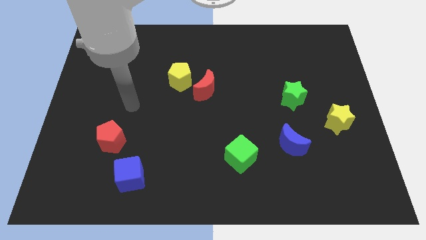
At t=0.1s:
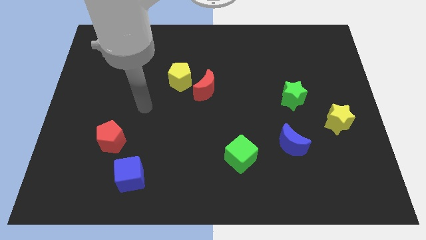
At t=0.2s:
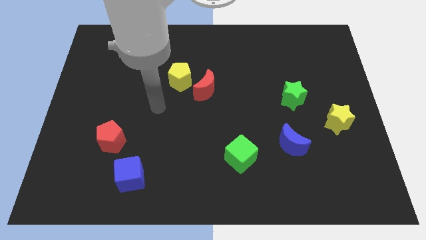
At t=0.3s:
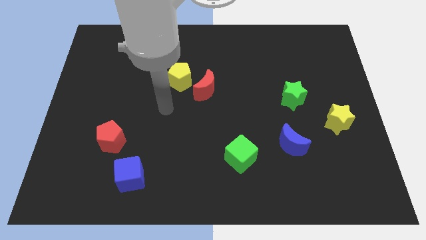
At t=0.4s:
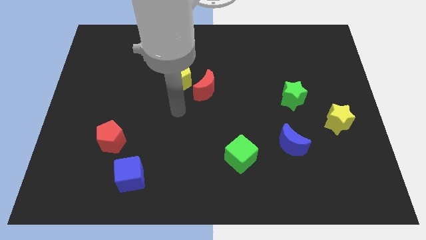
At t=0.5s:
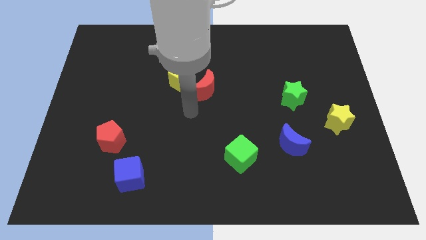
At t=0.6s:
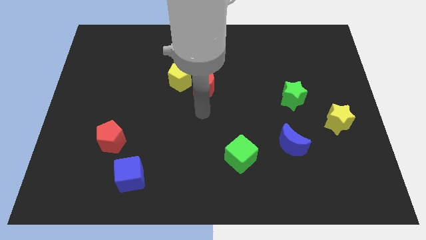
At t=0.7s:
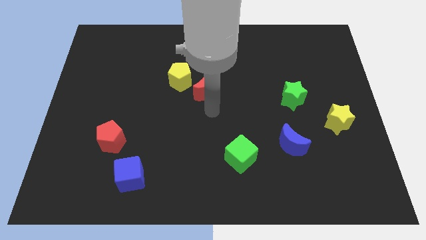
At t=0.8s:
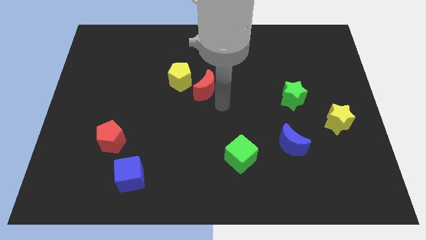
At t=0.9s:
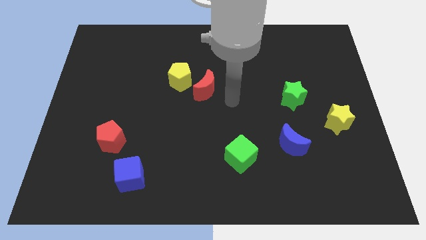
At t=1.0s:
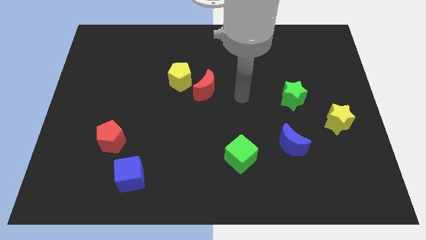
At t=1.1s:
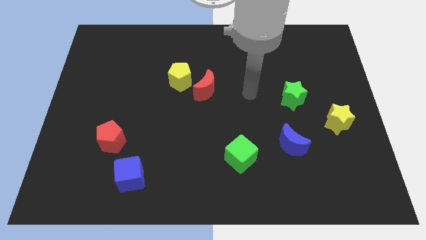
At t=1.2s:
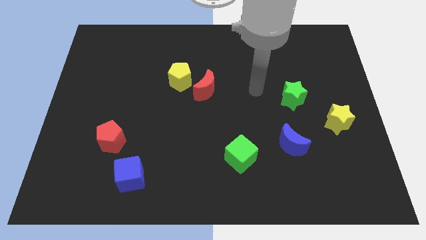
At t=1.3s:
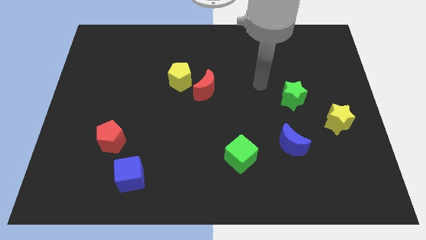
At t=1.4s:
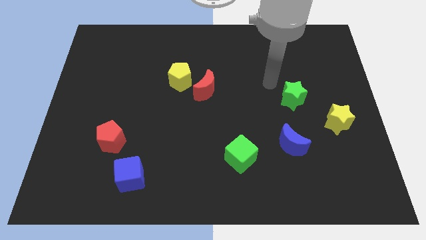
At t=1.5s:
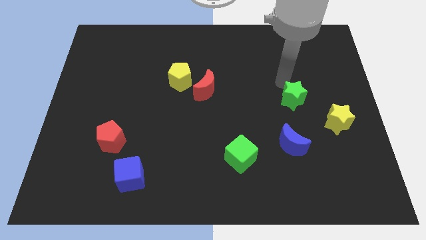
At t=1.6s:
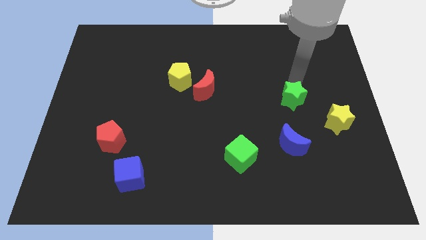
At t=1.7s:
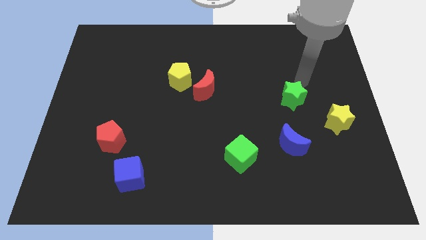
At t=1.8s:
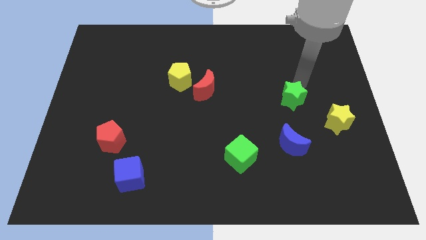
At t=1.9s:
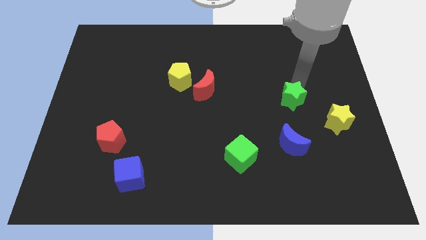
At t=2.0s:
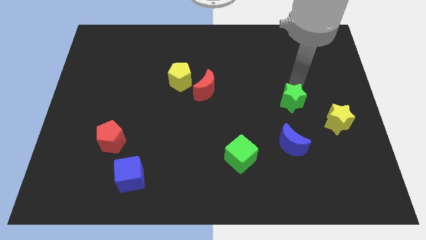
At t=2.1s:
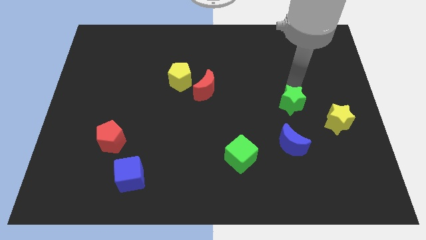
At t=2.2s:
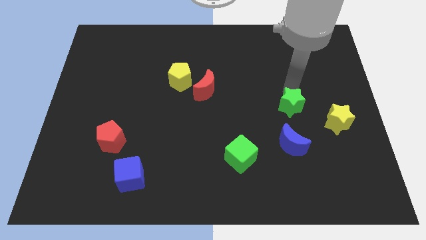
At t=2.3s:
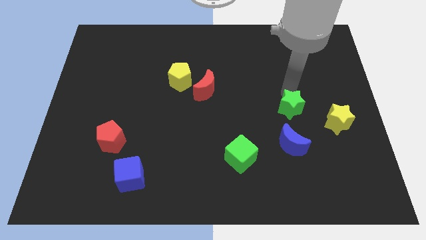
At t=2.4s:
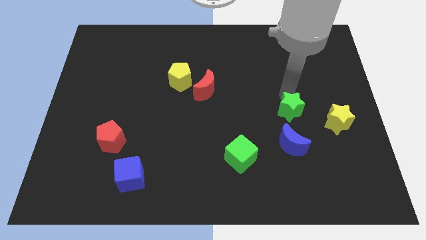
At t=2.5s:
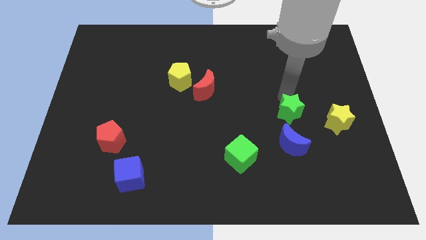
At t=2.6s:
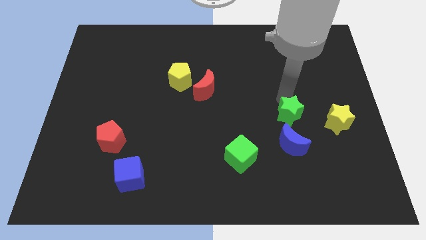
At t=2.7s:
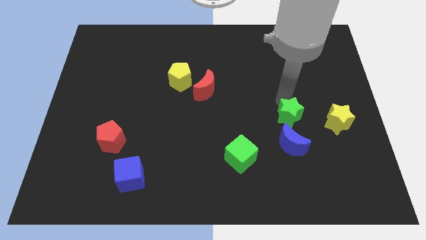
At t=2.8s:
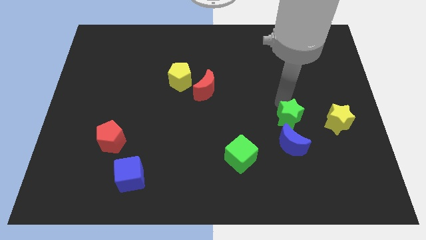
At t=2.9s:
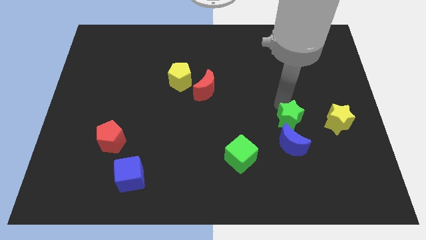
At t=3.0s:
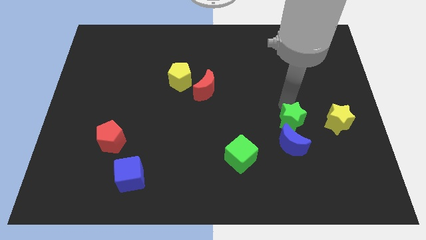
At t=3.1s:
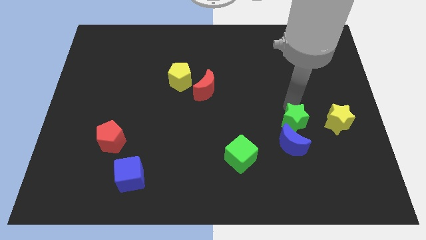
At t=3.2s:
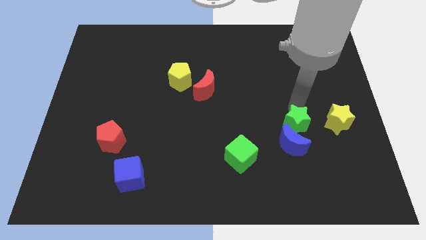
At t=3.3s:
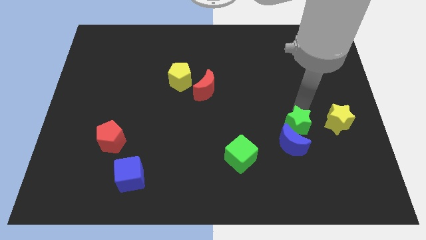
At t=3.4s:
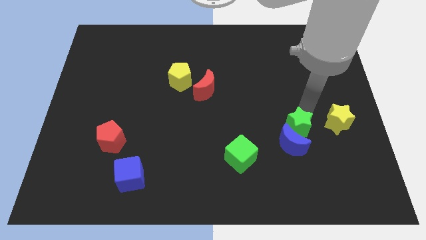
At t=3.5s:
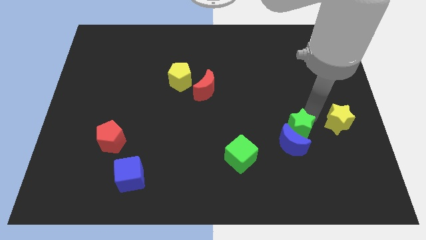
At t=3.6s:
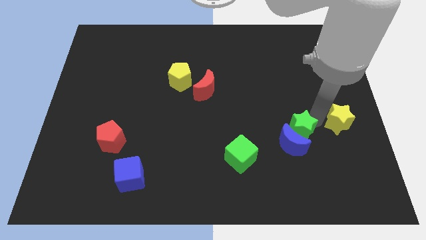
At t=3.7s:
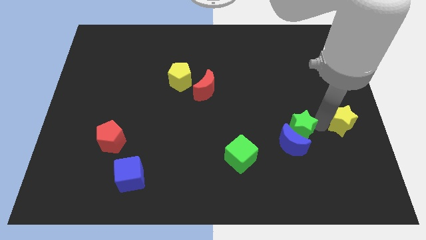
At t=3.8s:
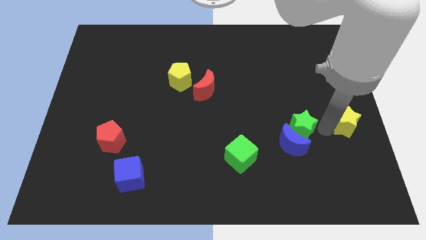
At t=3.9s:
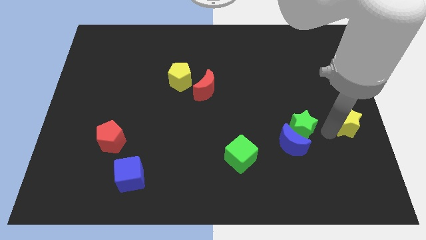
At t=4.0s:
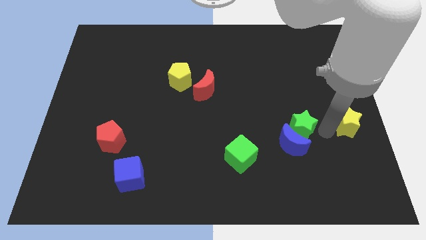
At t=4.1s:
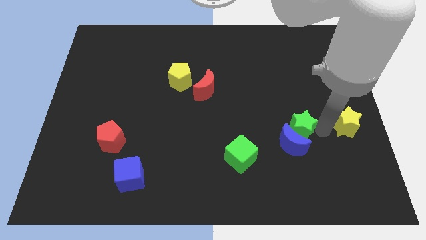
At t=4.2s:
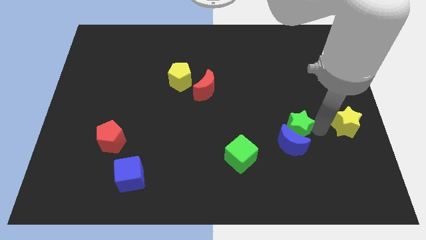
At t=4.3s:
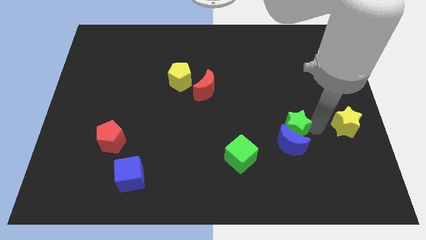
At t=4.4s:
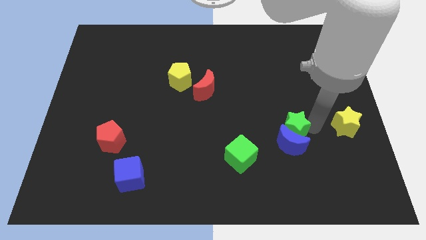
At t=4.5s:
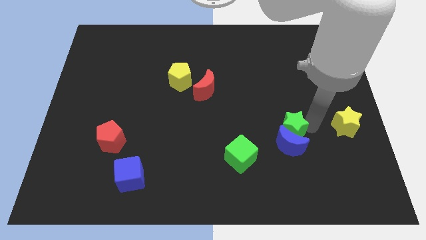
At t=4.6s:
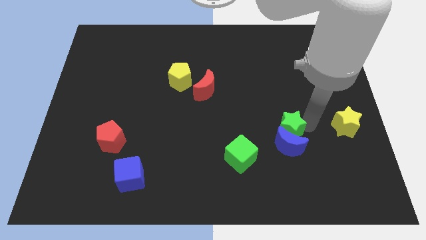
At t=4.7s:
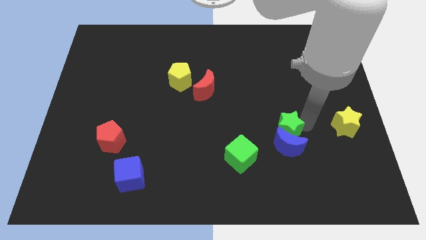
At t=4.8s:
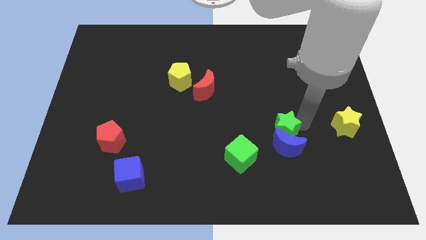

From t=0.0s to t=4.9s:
move the green star diagonally up and to the right of the green cube

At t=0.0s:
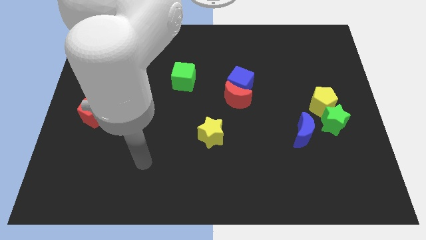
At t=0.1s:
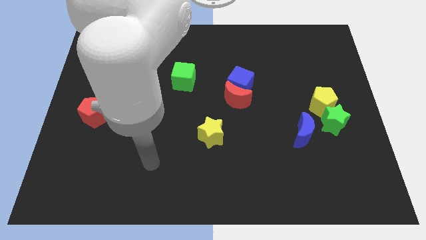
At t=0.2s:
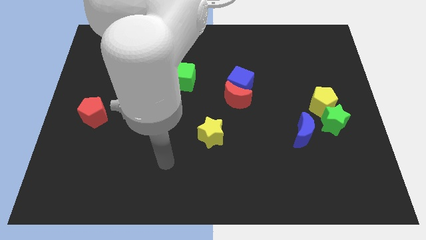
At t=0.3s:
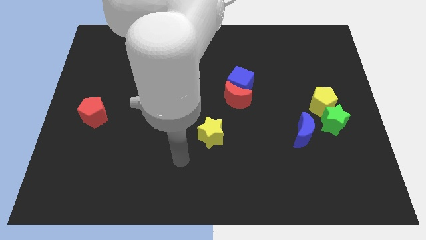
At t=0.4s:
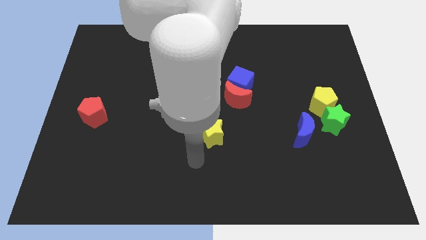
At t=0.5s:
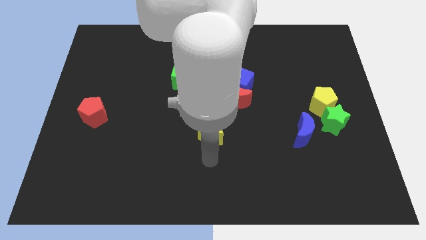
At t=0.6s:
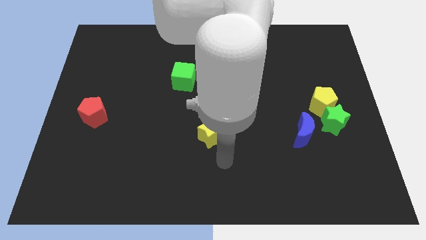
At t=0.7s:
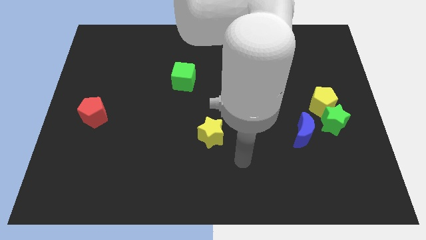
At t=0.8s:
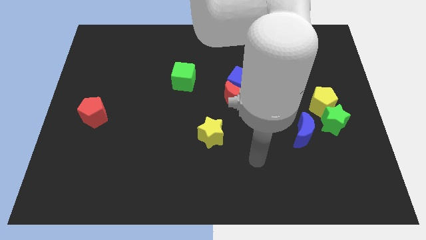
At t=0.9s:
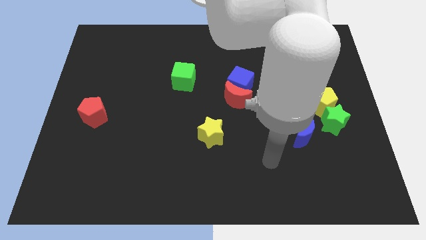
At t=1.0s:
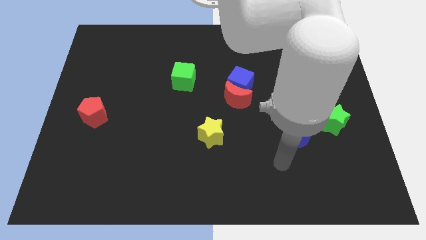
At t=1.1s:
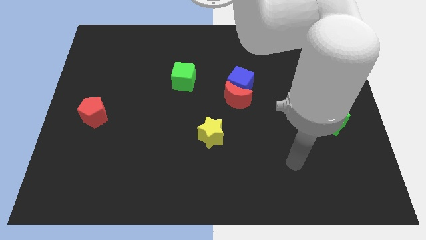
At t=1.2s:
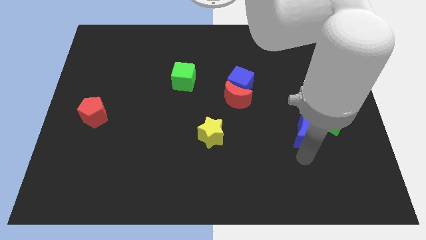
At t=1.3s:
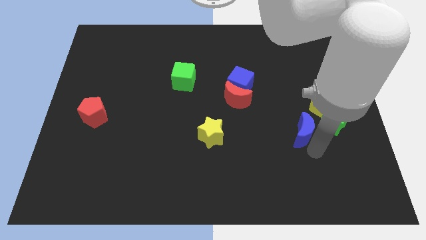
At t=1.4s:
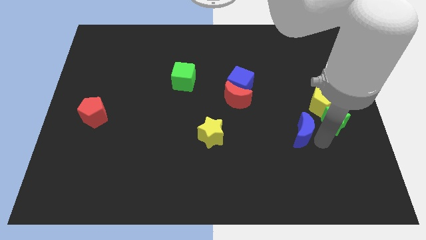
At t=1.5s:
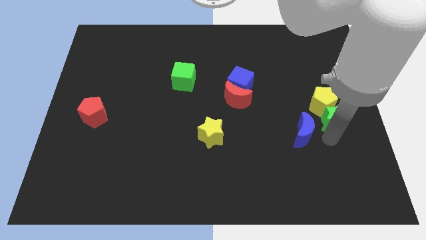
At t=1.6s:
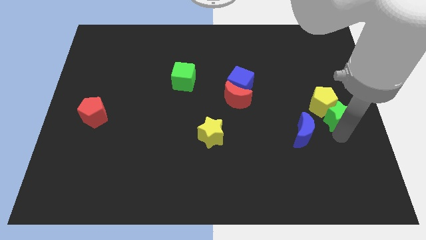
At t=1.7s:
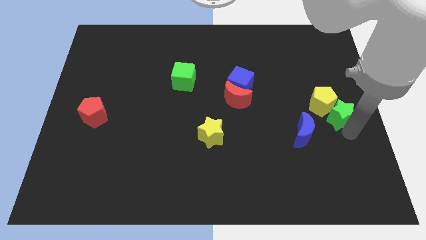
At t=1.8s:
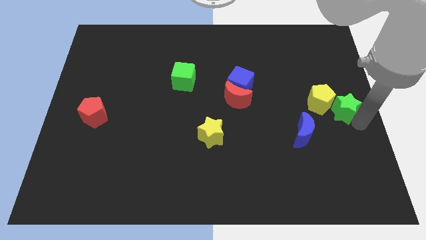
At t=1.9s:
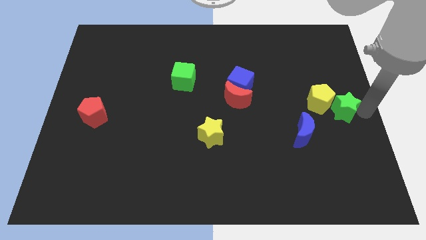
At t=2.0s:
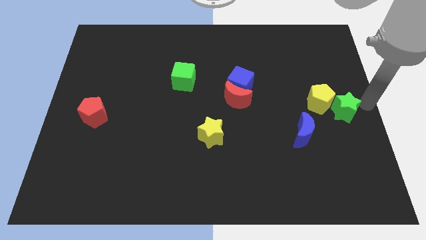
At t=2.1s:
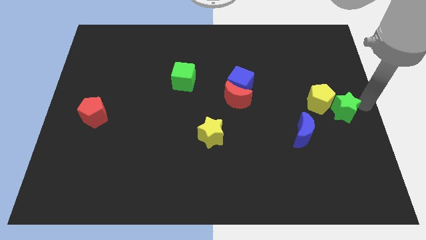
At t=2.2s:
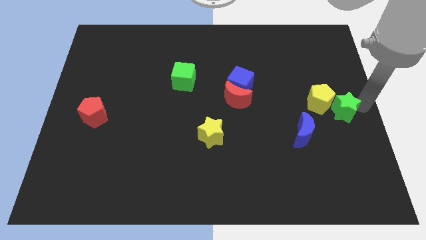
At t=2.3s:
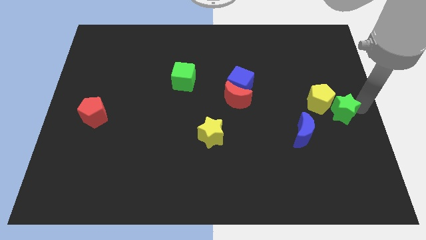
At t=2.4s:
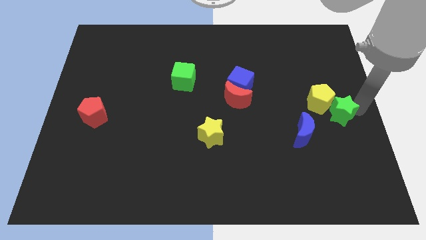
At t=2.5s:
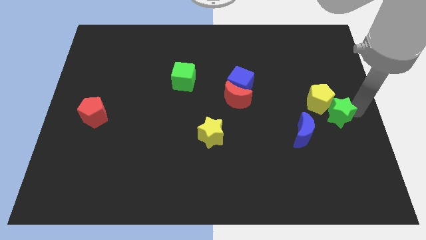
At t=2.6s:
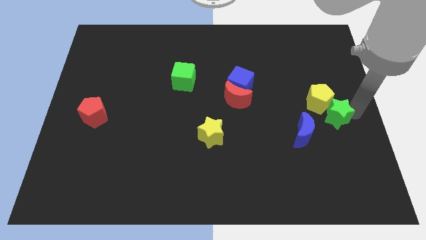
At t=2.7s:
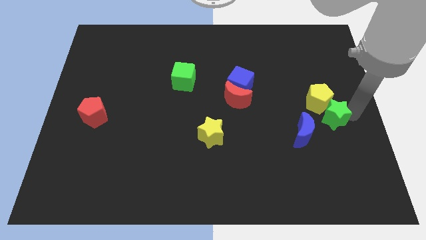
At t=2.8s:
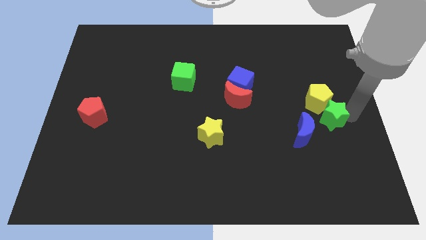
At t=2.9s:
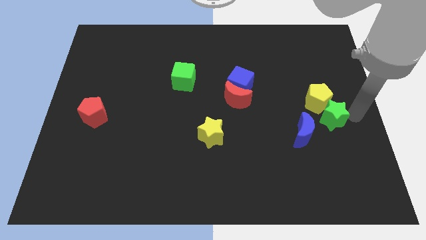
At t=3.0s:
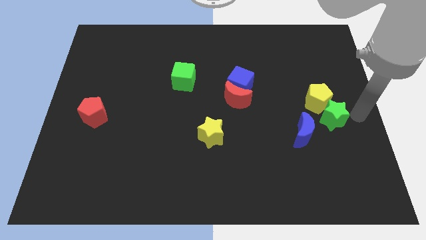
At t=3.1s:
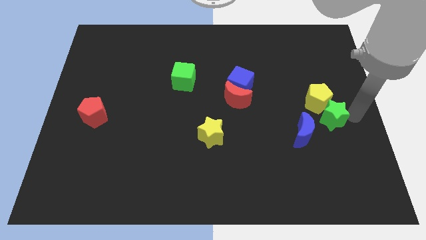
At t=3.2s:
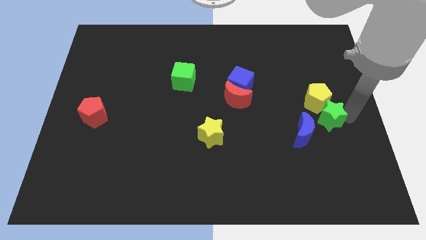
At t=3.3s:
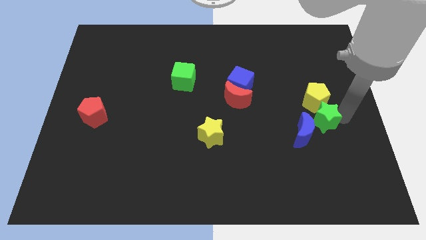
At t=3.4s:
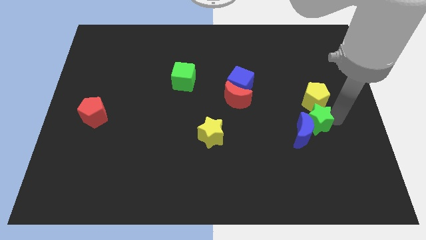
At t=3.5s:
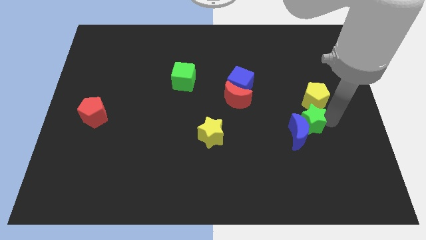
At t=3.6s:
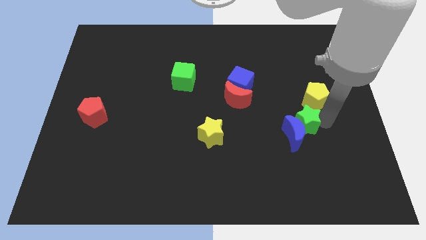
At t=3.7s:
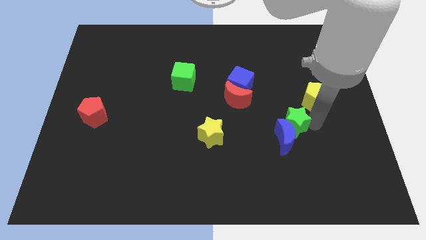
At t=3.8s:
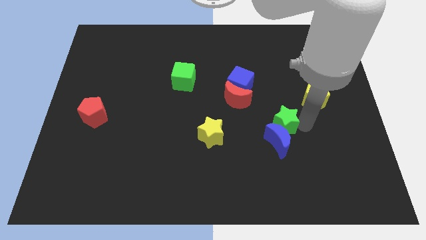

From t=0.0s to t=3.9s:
push the green star diagonally down and to the right of the red moon
